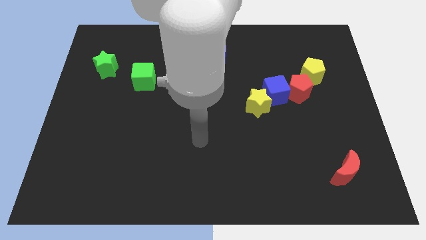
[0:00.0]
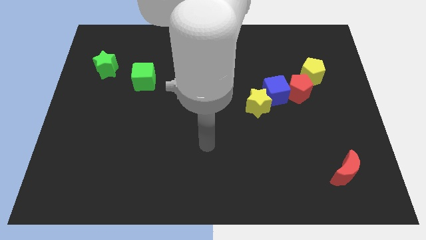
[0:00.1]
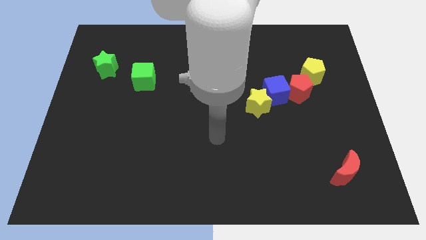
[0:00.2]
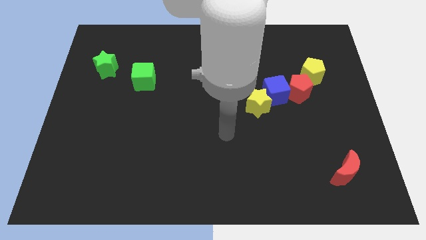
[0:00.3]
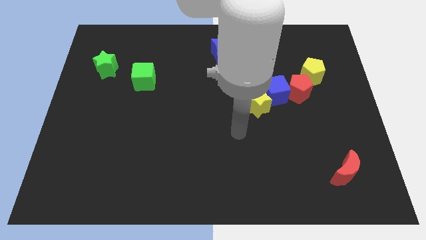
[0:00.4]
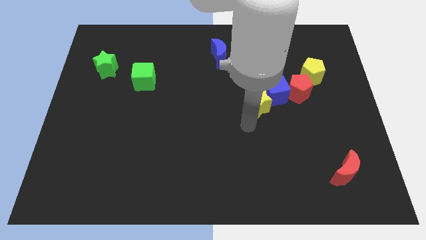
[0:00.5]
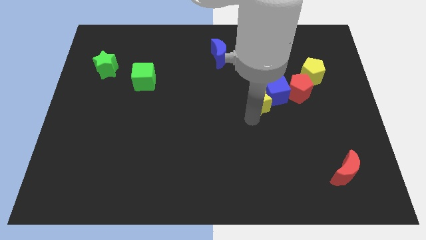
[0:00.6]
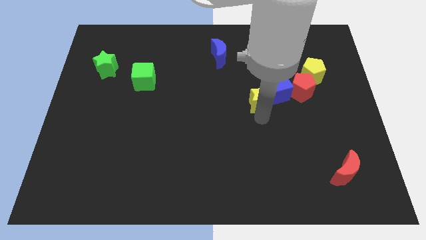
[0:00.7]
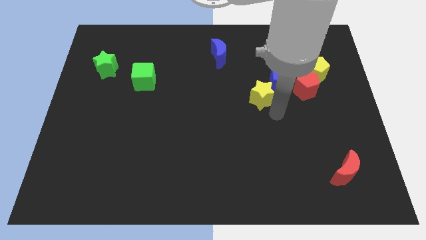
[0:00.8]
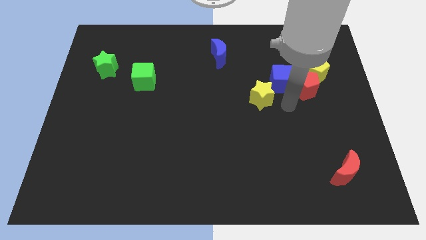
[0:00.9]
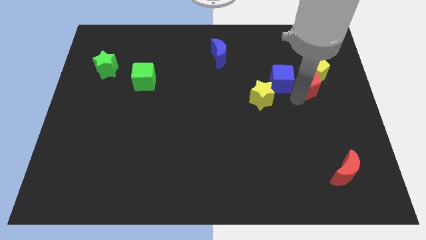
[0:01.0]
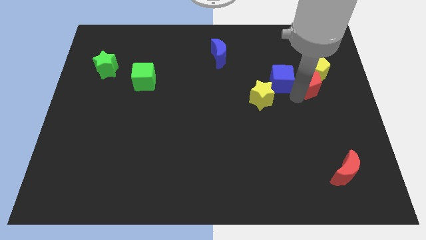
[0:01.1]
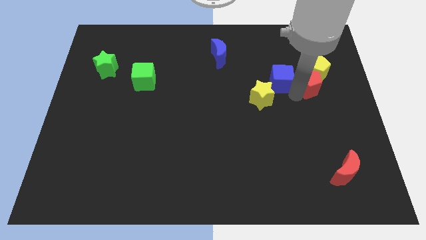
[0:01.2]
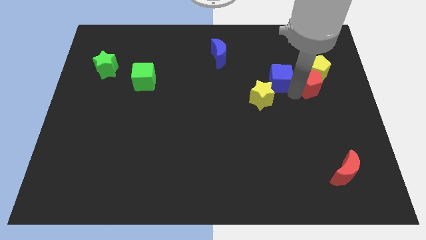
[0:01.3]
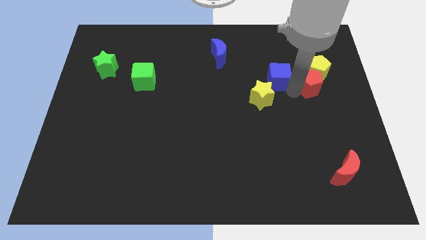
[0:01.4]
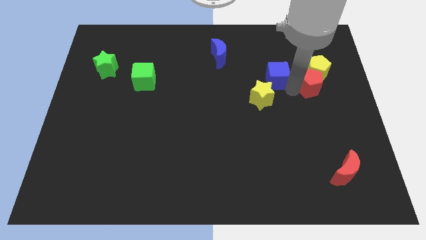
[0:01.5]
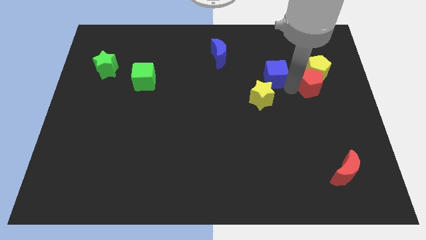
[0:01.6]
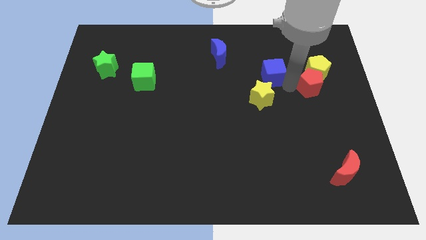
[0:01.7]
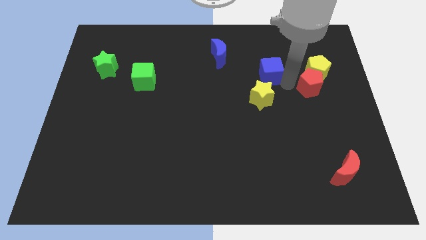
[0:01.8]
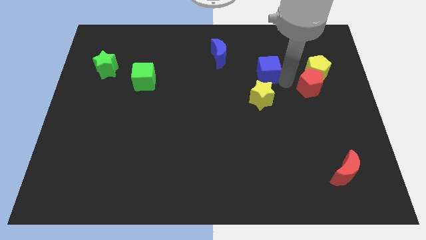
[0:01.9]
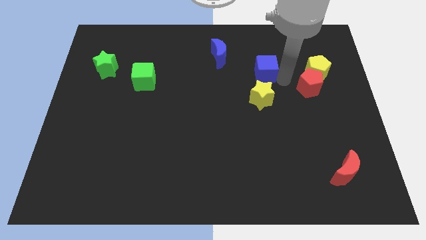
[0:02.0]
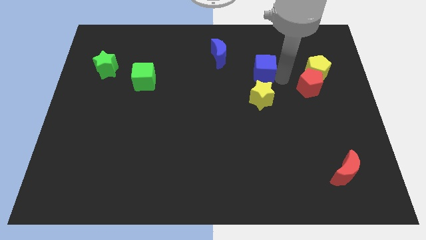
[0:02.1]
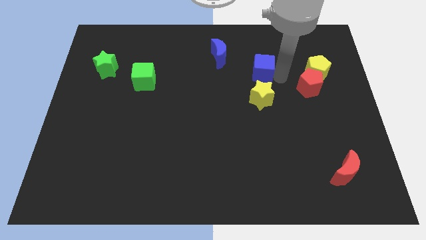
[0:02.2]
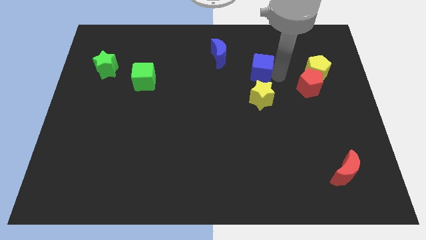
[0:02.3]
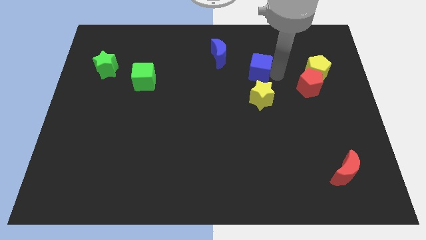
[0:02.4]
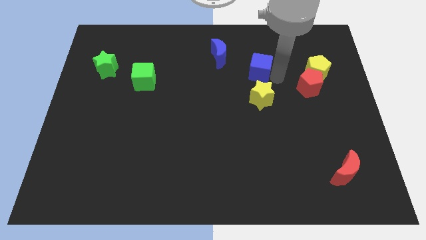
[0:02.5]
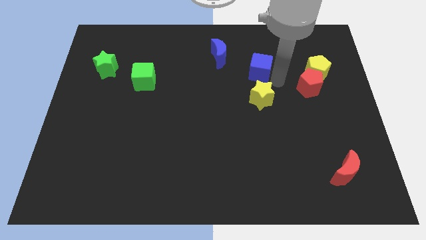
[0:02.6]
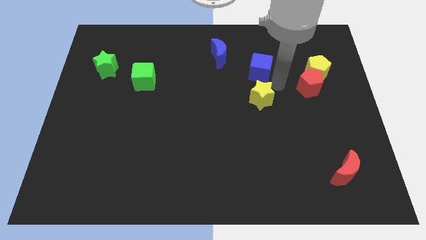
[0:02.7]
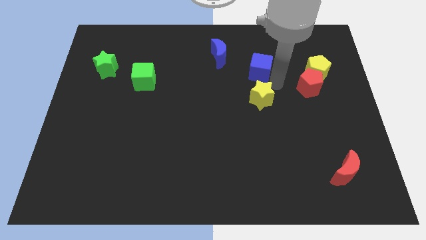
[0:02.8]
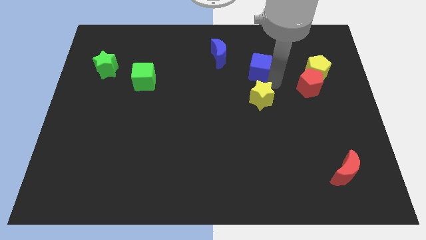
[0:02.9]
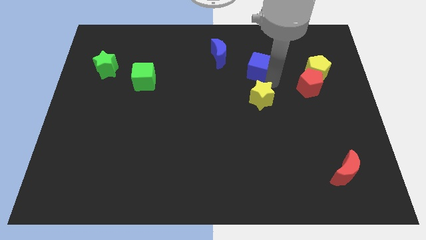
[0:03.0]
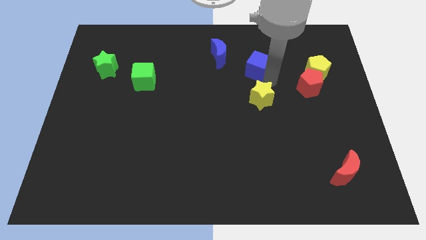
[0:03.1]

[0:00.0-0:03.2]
move the blue cube away from the red pentagon and yellow star

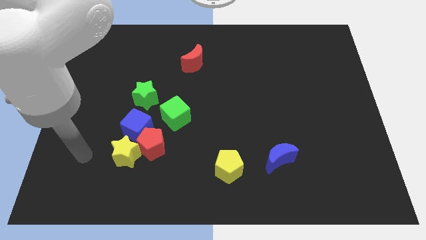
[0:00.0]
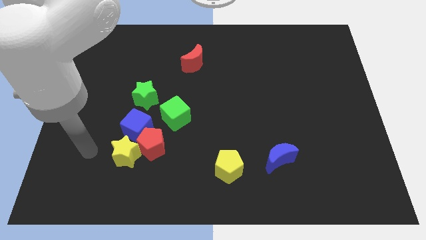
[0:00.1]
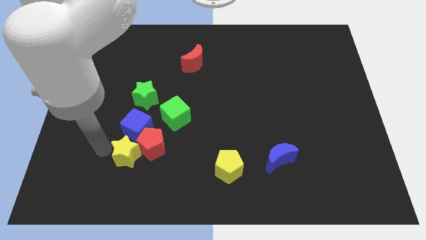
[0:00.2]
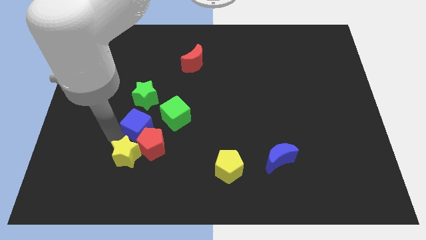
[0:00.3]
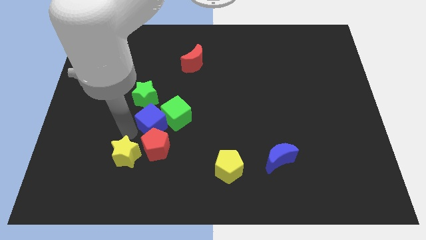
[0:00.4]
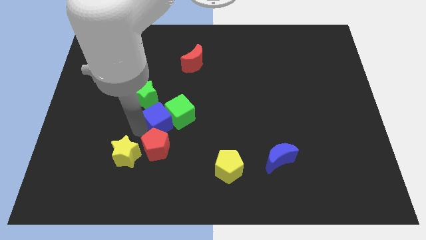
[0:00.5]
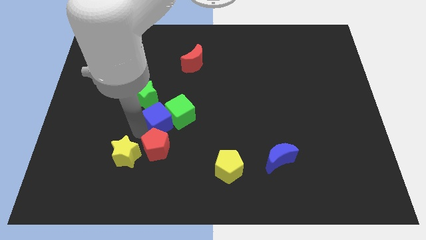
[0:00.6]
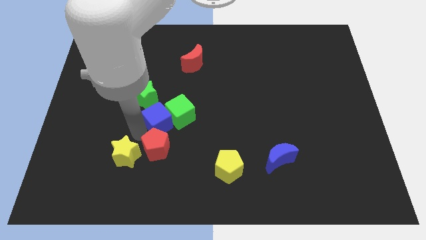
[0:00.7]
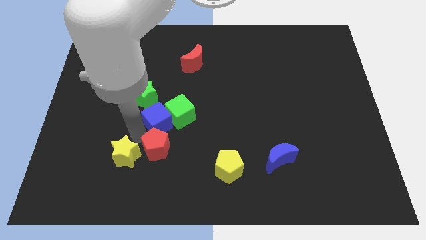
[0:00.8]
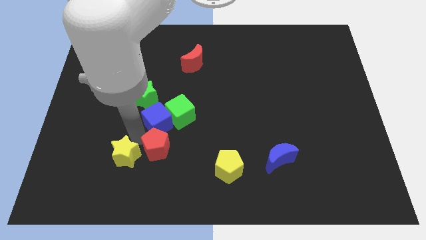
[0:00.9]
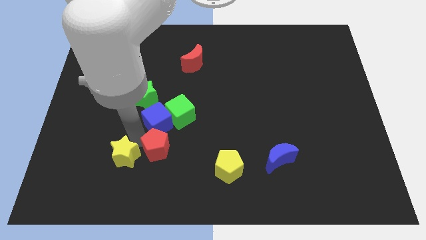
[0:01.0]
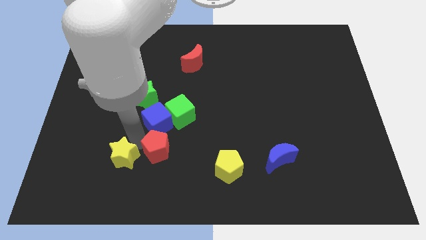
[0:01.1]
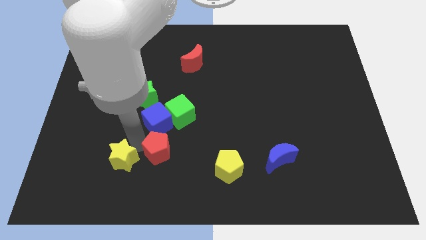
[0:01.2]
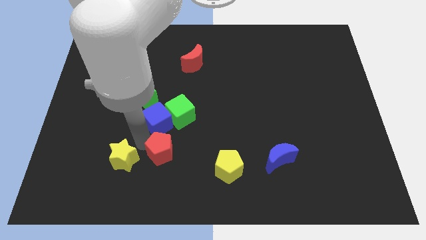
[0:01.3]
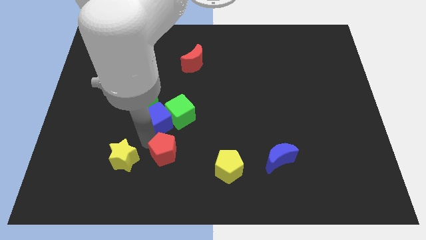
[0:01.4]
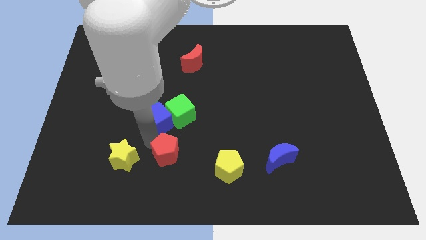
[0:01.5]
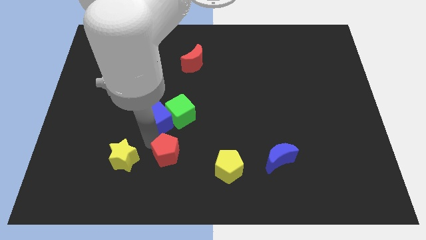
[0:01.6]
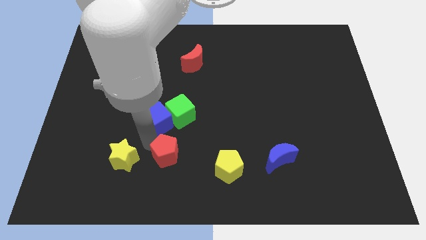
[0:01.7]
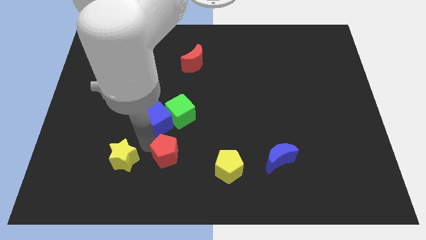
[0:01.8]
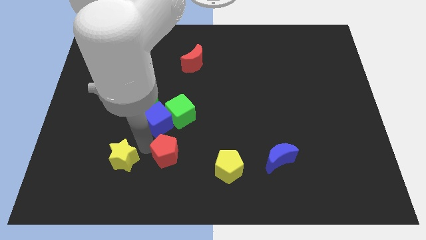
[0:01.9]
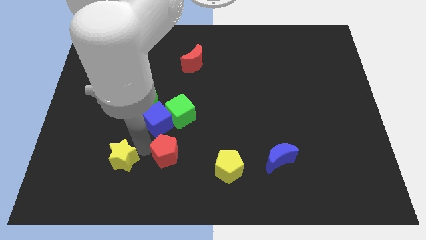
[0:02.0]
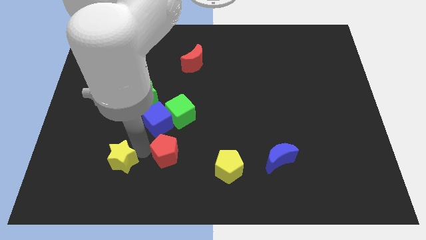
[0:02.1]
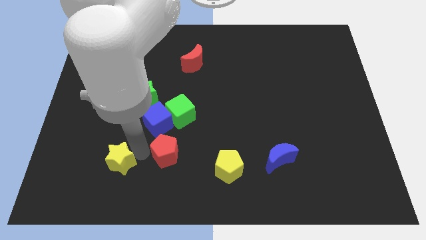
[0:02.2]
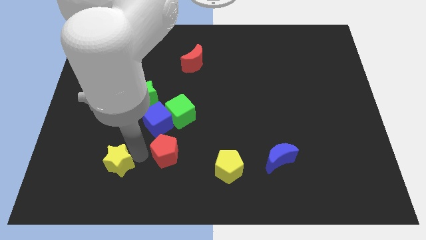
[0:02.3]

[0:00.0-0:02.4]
move the yellow star away from the red pentagon and blue cube

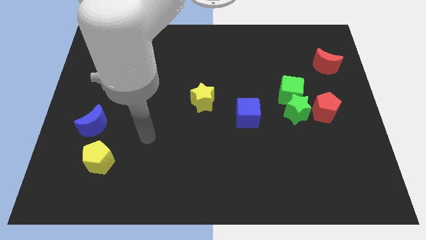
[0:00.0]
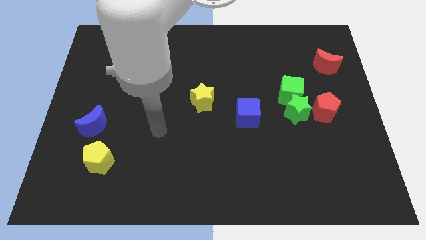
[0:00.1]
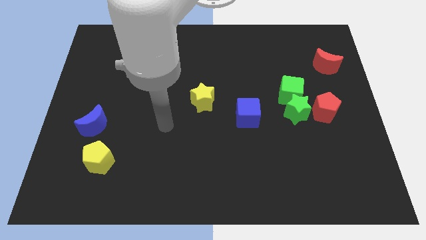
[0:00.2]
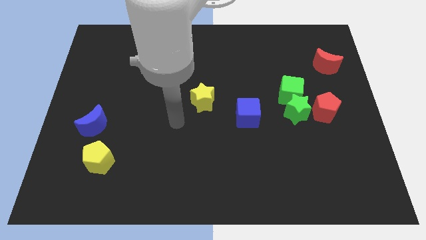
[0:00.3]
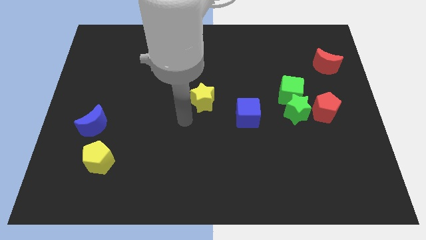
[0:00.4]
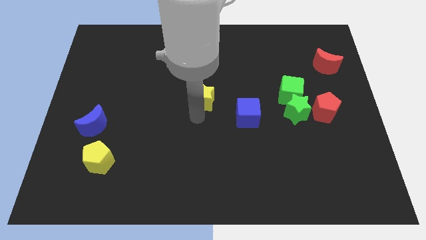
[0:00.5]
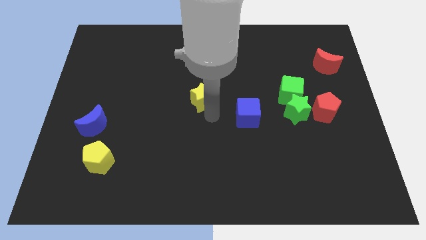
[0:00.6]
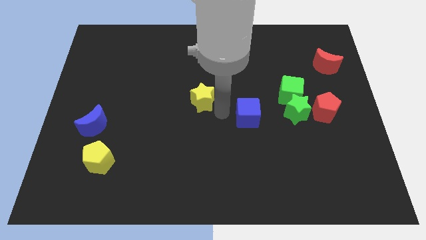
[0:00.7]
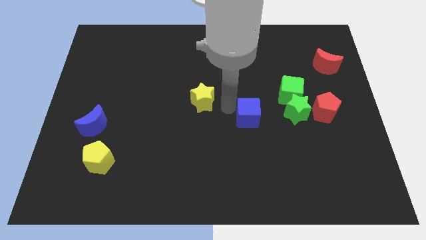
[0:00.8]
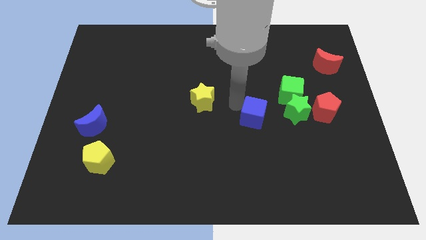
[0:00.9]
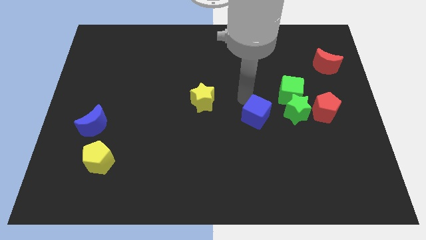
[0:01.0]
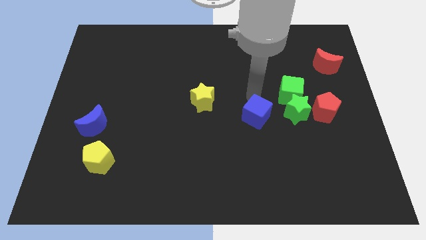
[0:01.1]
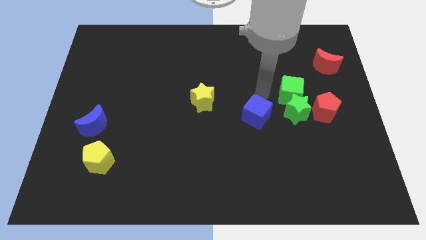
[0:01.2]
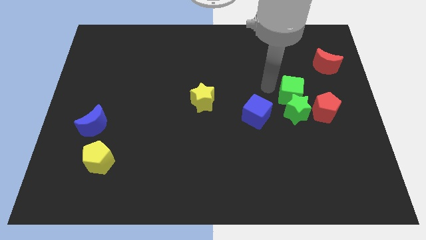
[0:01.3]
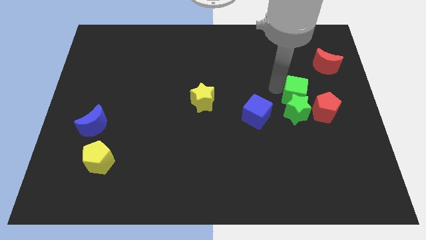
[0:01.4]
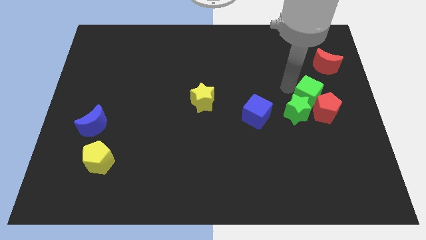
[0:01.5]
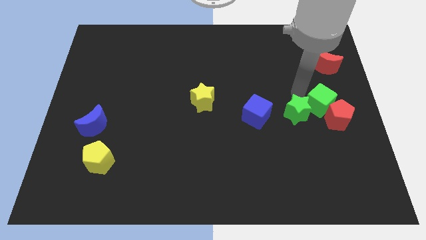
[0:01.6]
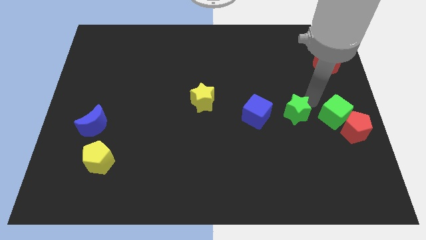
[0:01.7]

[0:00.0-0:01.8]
move the green star away from the green cube and red pentagon

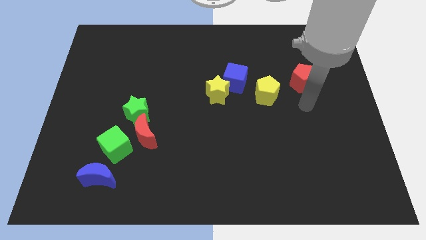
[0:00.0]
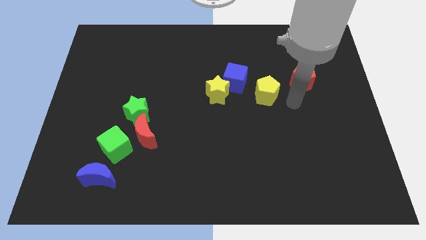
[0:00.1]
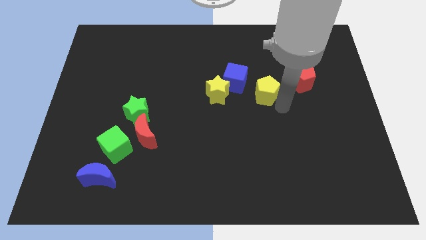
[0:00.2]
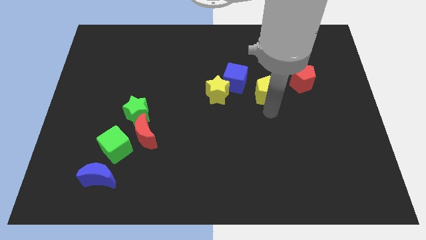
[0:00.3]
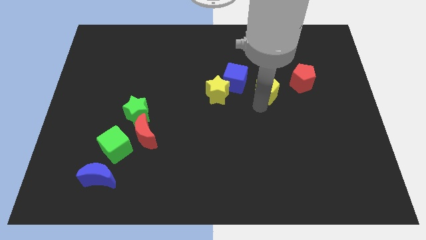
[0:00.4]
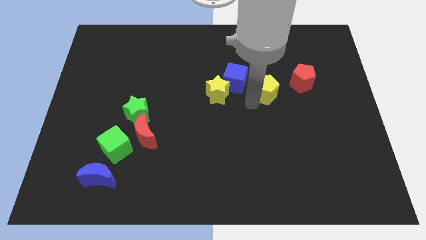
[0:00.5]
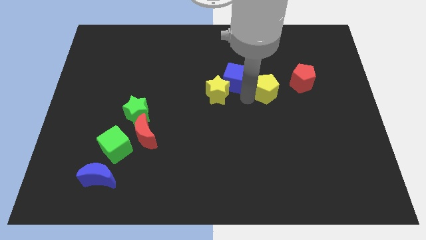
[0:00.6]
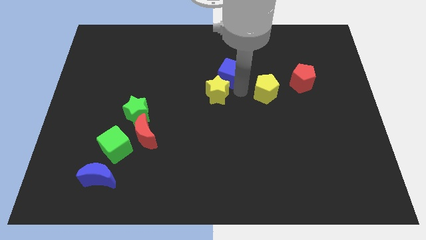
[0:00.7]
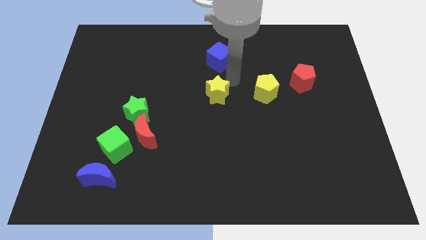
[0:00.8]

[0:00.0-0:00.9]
pull the yellow star apart from the blue cube

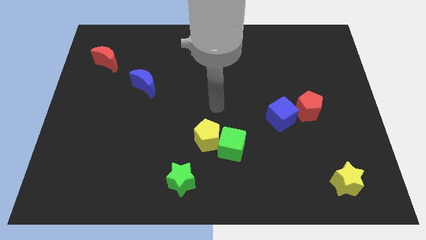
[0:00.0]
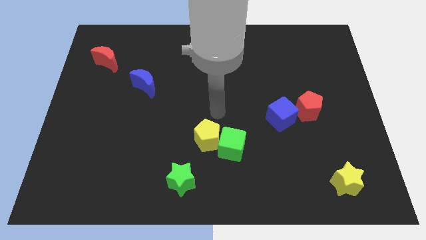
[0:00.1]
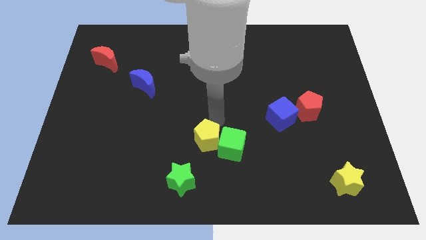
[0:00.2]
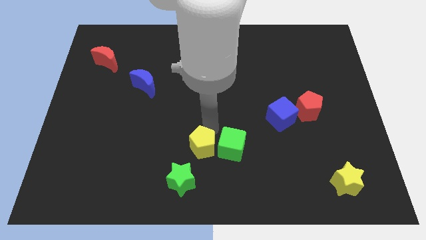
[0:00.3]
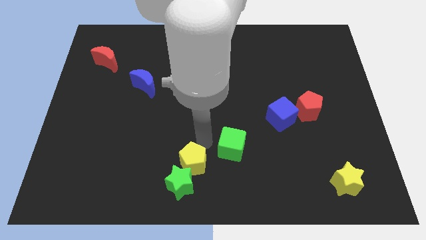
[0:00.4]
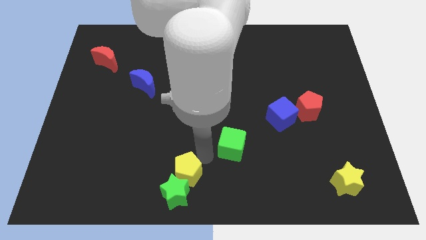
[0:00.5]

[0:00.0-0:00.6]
separate the green cube from the yellow pentagon

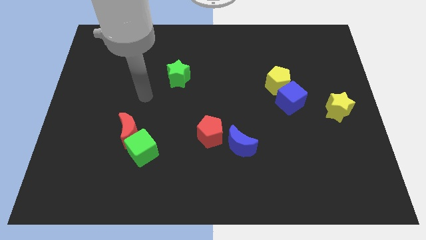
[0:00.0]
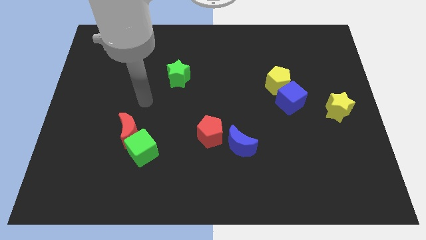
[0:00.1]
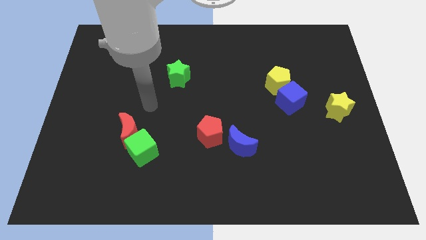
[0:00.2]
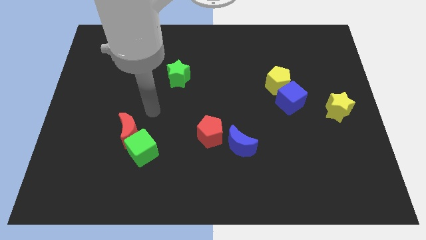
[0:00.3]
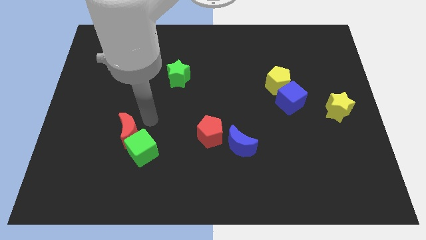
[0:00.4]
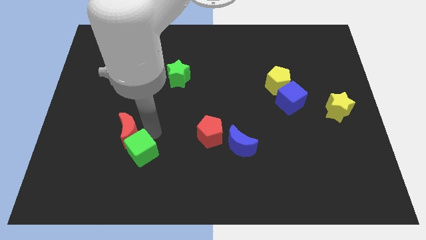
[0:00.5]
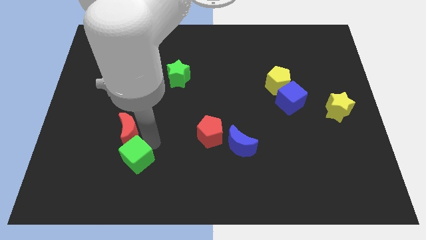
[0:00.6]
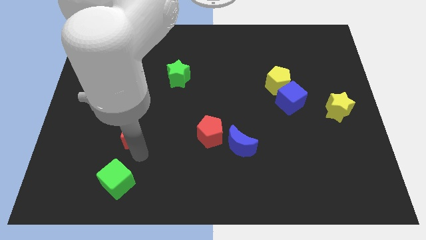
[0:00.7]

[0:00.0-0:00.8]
move the red moon away from the green cube
